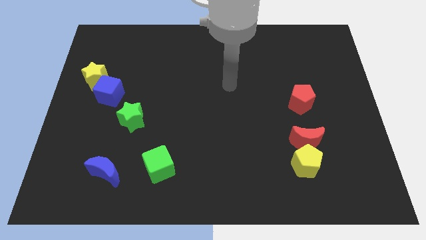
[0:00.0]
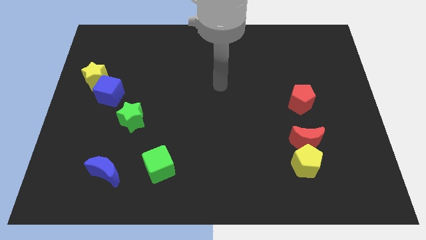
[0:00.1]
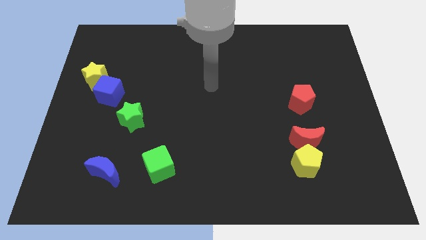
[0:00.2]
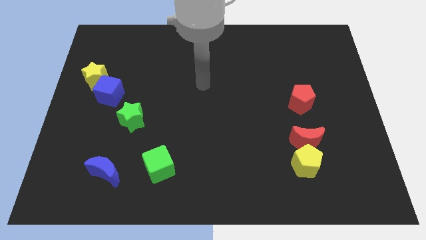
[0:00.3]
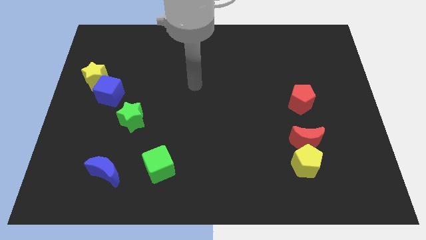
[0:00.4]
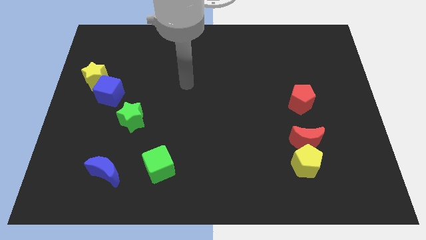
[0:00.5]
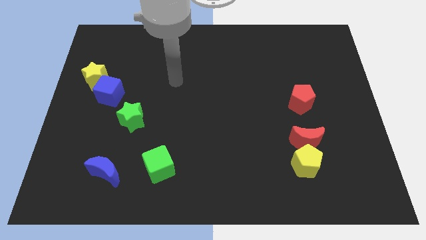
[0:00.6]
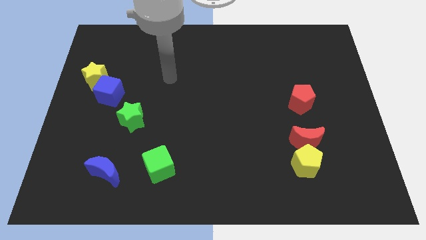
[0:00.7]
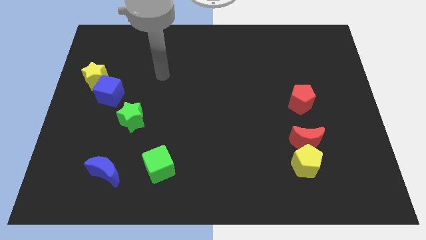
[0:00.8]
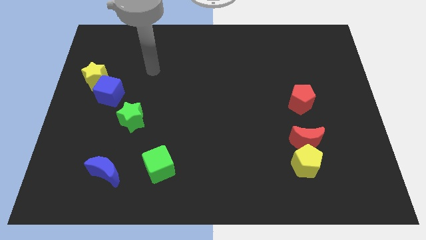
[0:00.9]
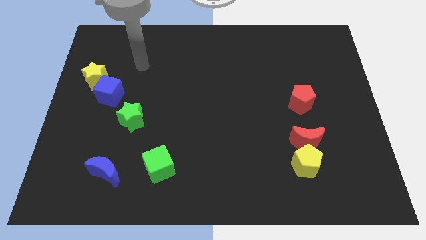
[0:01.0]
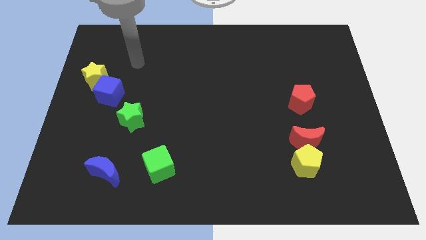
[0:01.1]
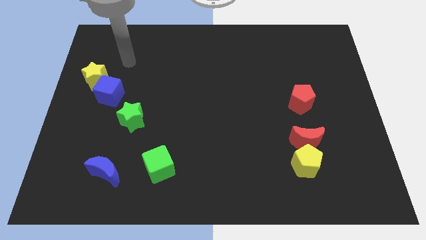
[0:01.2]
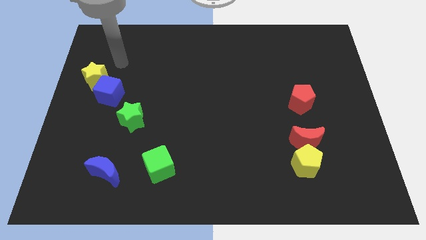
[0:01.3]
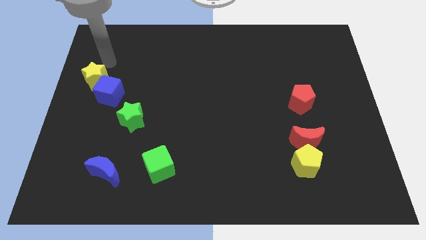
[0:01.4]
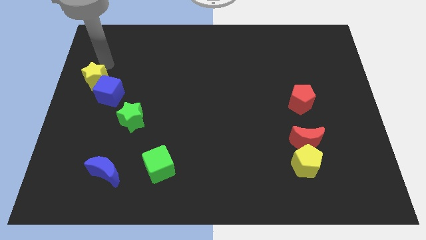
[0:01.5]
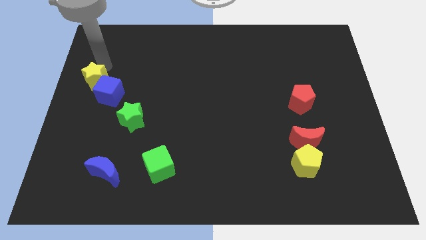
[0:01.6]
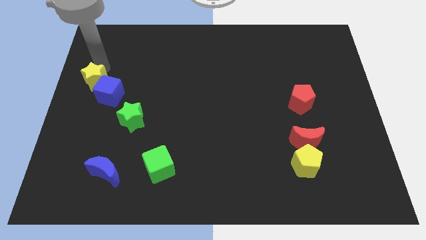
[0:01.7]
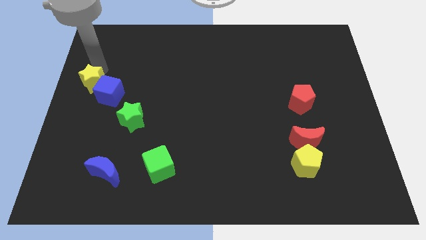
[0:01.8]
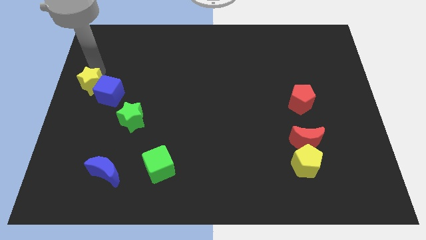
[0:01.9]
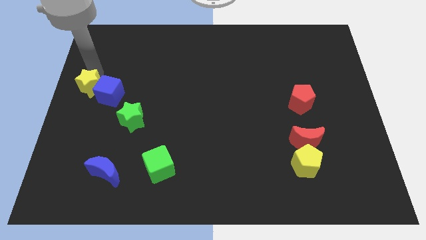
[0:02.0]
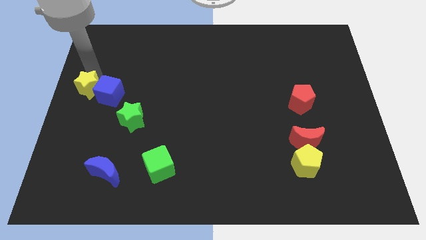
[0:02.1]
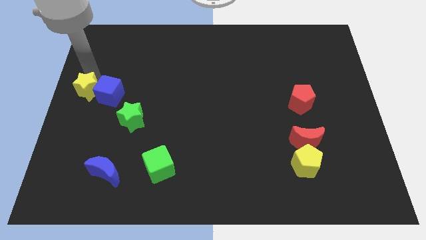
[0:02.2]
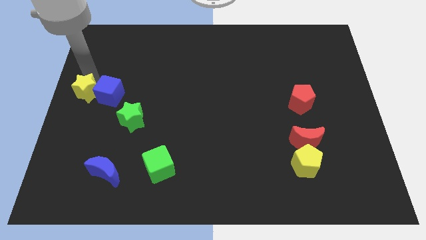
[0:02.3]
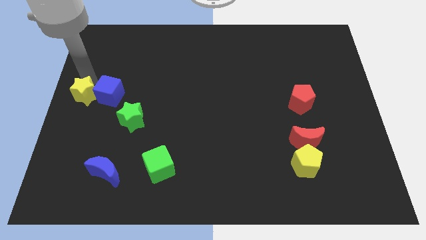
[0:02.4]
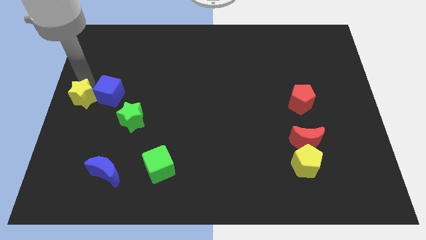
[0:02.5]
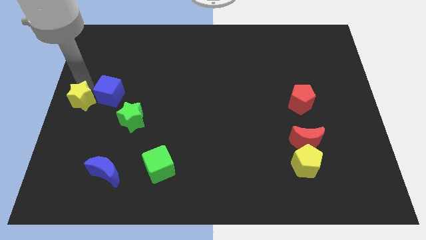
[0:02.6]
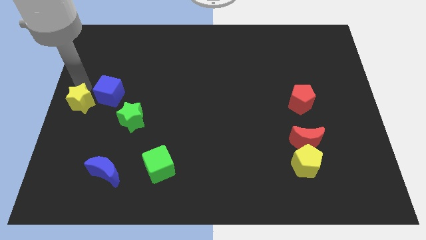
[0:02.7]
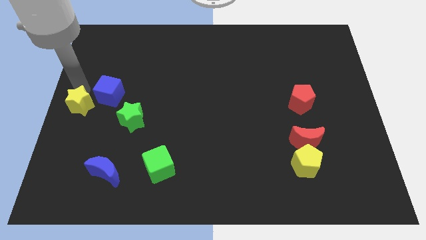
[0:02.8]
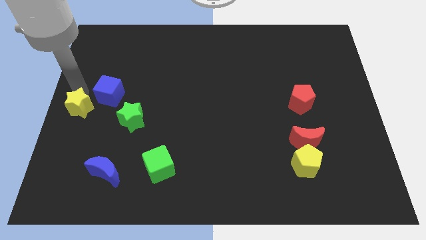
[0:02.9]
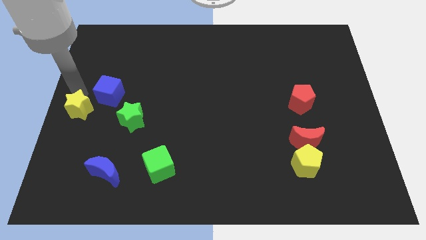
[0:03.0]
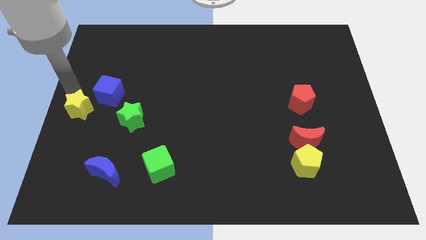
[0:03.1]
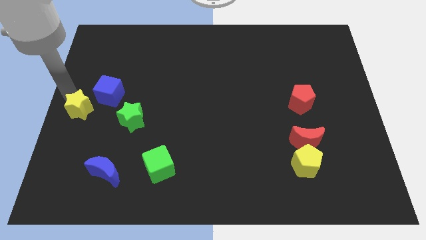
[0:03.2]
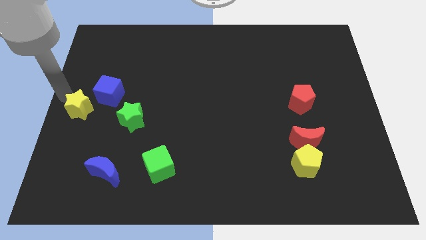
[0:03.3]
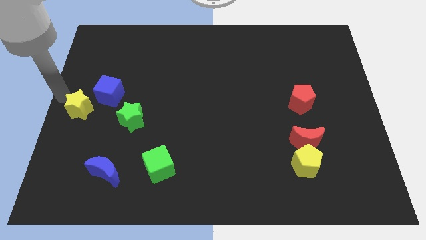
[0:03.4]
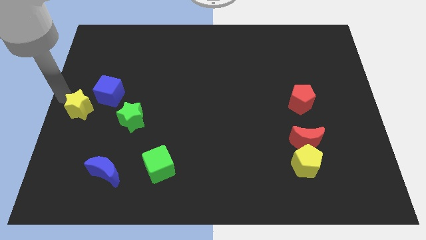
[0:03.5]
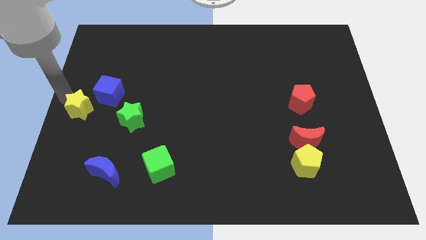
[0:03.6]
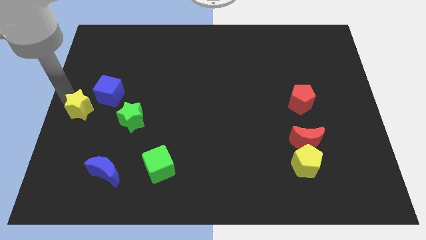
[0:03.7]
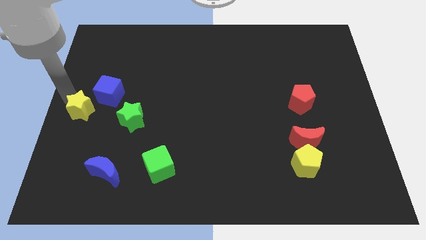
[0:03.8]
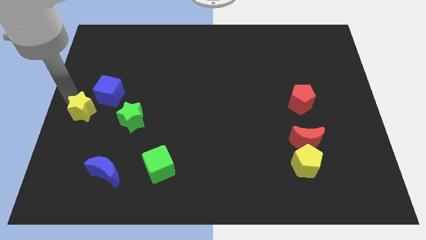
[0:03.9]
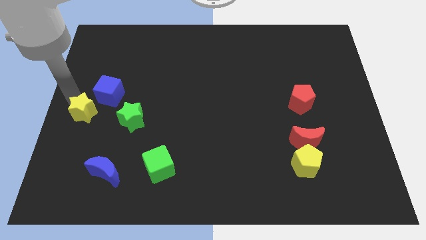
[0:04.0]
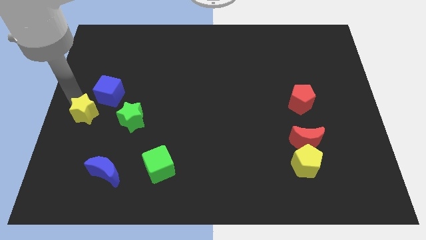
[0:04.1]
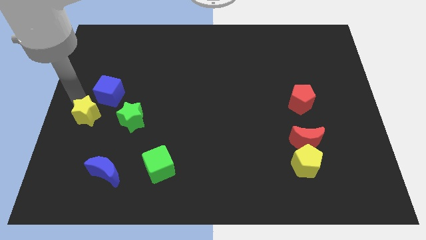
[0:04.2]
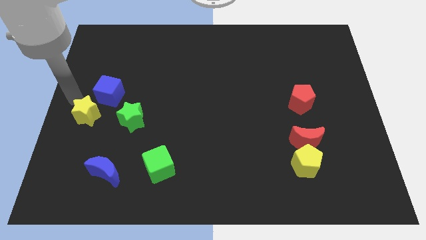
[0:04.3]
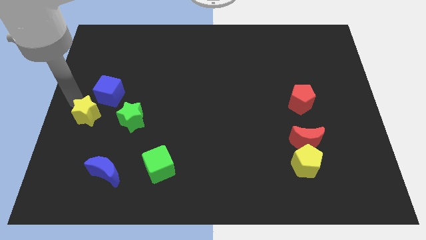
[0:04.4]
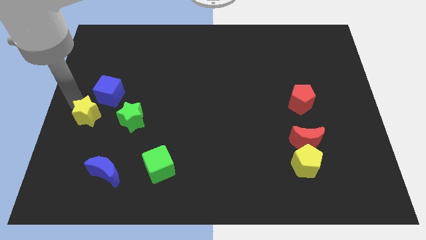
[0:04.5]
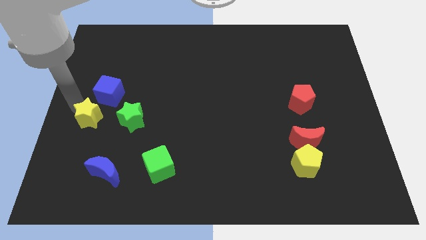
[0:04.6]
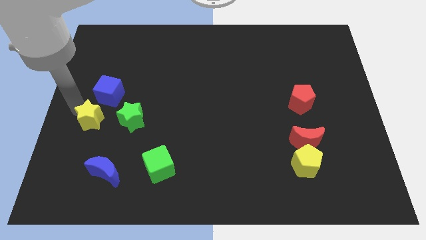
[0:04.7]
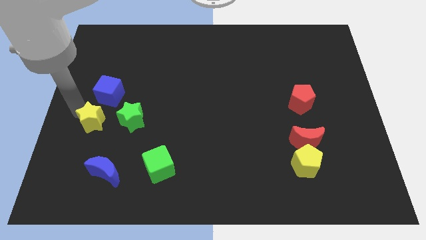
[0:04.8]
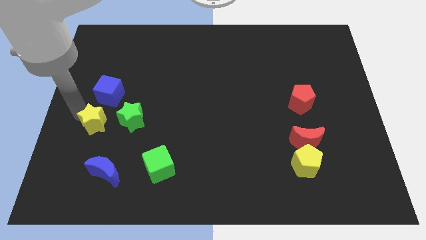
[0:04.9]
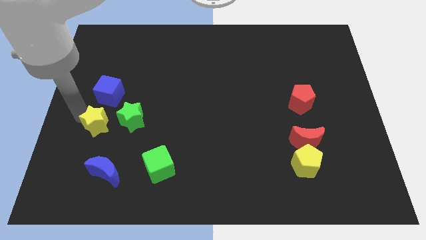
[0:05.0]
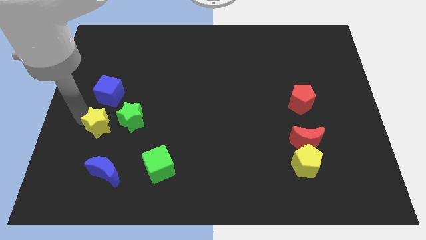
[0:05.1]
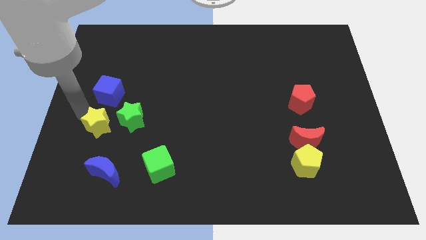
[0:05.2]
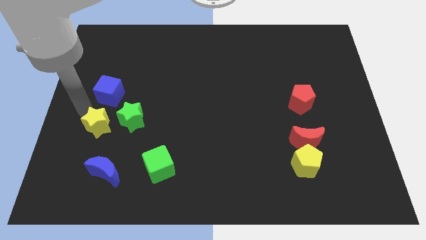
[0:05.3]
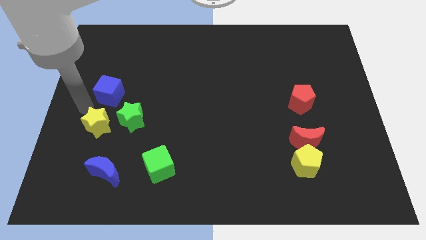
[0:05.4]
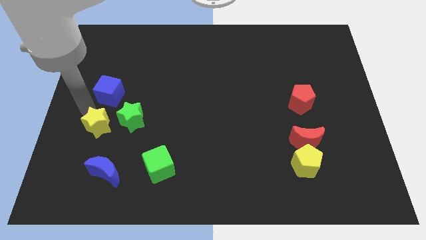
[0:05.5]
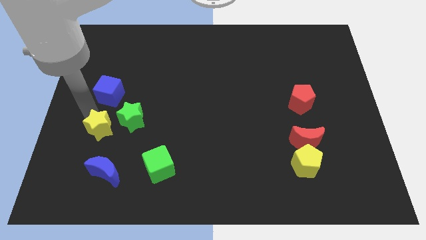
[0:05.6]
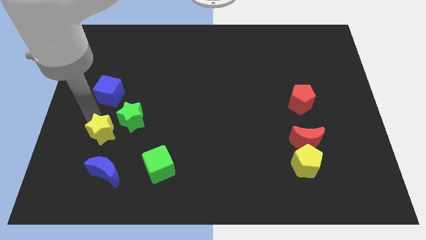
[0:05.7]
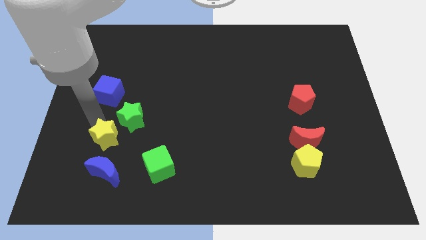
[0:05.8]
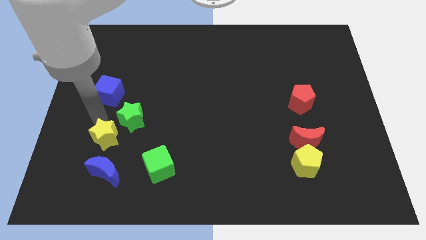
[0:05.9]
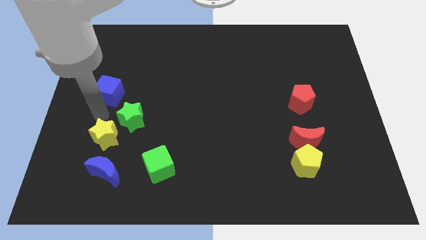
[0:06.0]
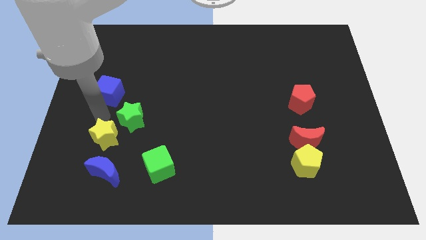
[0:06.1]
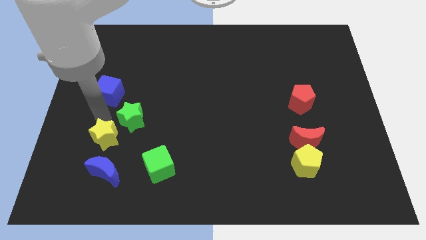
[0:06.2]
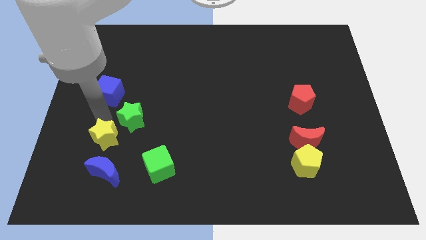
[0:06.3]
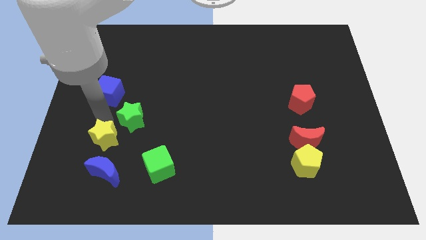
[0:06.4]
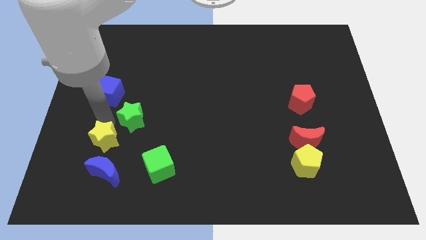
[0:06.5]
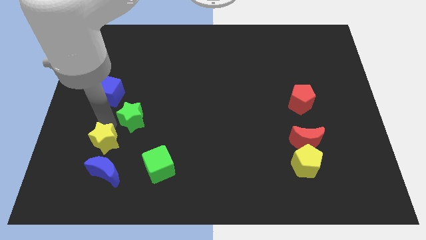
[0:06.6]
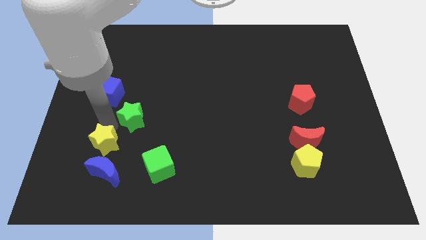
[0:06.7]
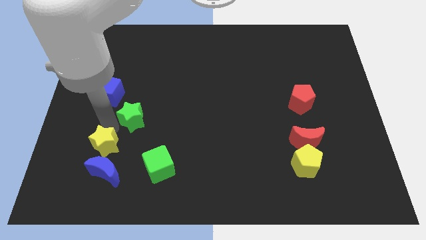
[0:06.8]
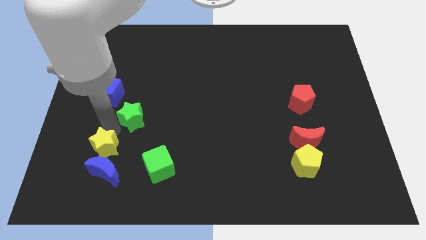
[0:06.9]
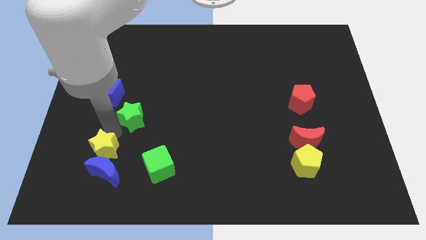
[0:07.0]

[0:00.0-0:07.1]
slide the yellow star next to the blue moon

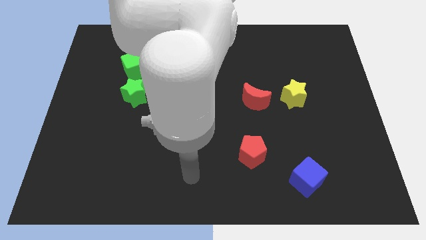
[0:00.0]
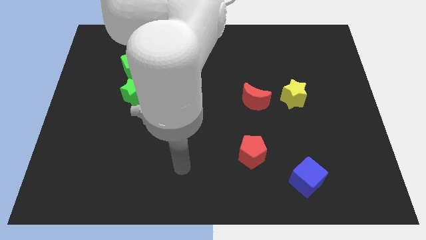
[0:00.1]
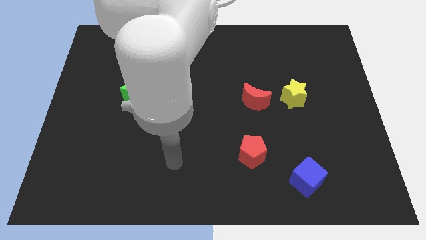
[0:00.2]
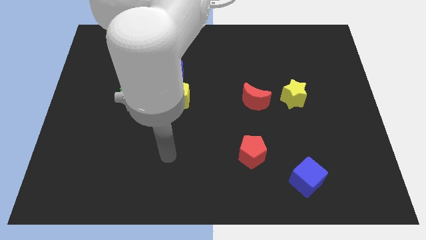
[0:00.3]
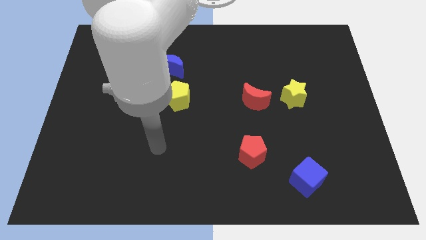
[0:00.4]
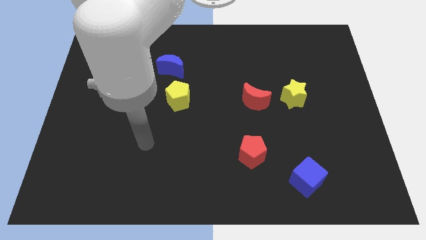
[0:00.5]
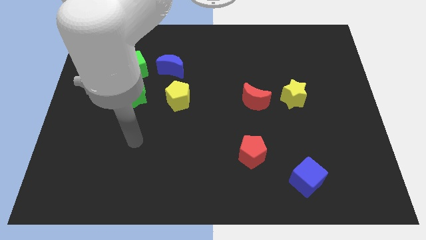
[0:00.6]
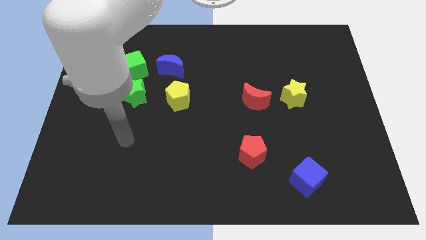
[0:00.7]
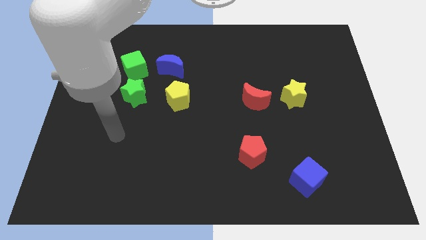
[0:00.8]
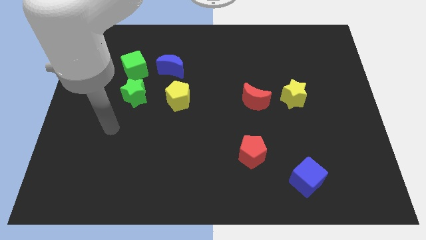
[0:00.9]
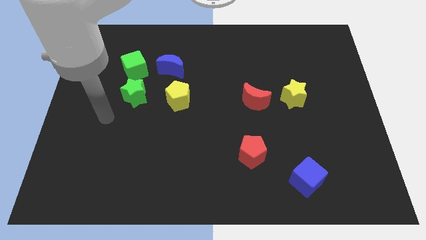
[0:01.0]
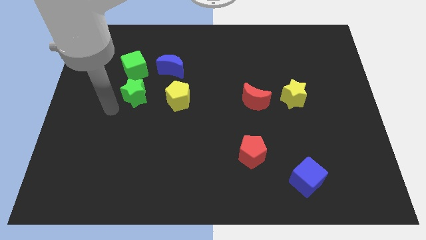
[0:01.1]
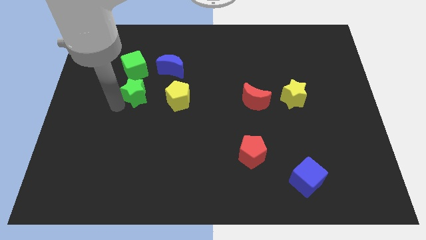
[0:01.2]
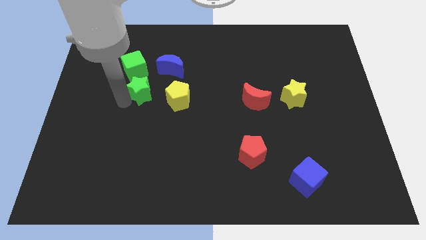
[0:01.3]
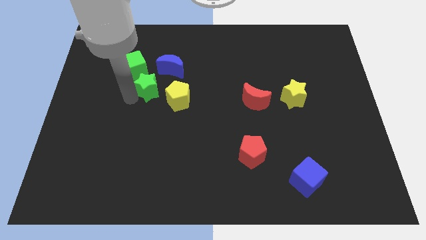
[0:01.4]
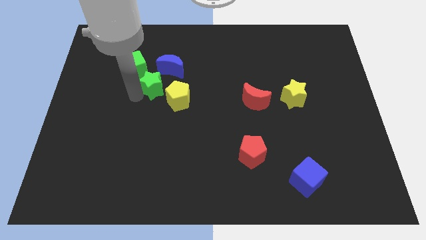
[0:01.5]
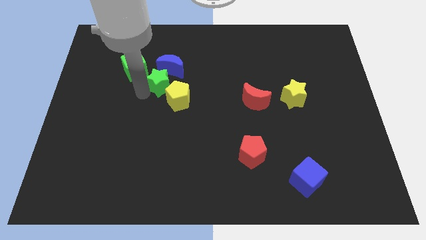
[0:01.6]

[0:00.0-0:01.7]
move the green star next to the blue moon
